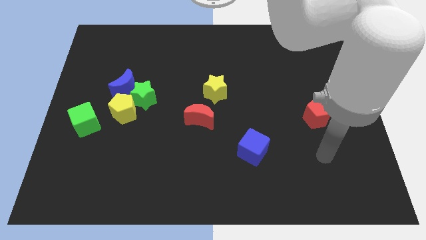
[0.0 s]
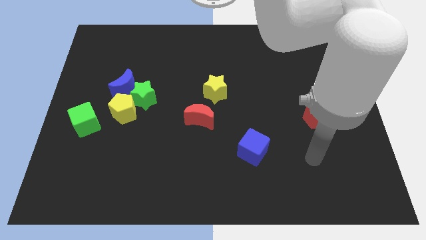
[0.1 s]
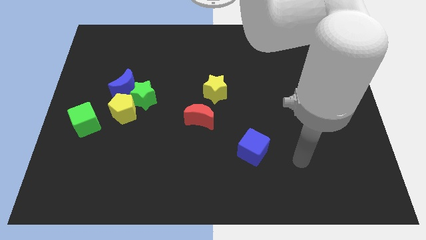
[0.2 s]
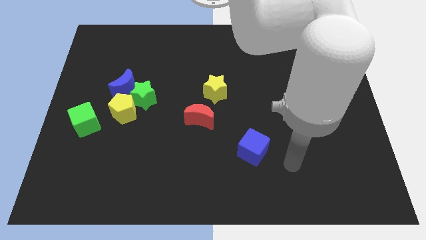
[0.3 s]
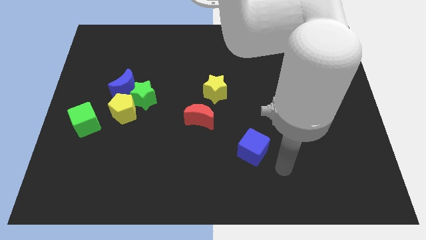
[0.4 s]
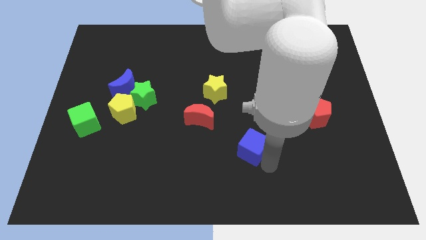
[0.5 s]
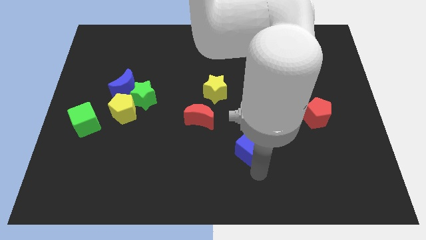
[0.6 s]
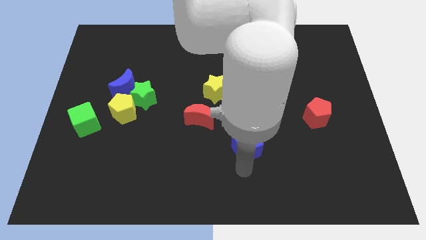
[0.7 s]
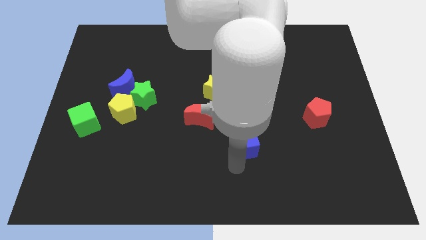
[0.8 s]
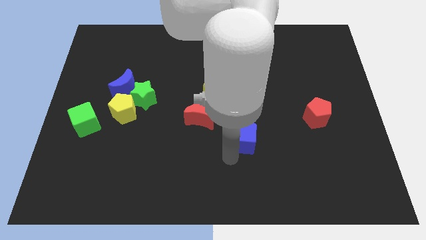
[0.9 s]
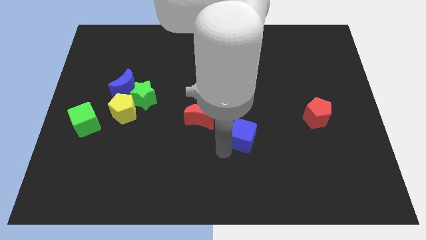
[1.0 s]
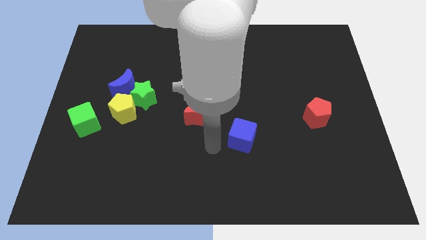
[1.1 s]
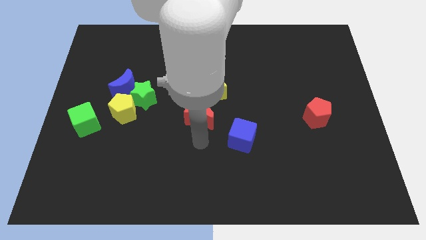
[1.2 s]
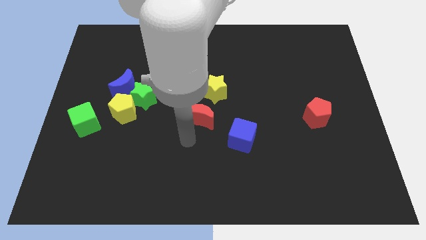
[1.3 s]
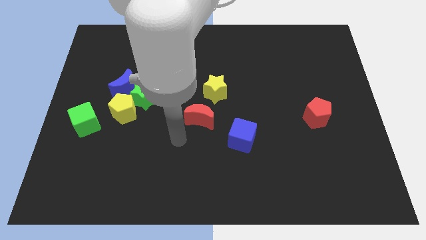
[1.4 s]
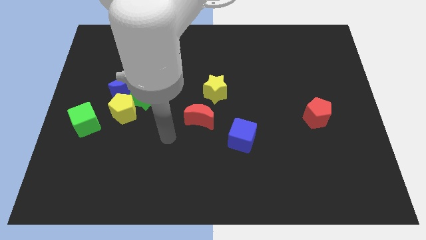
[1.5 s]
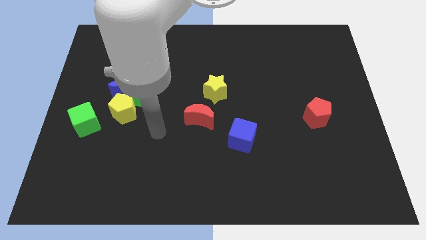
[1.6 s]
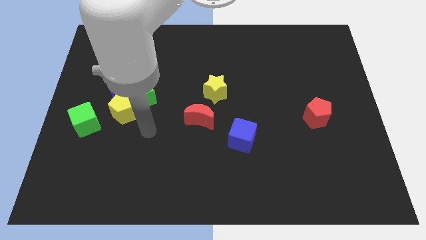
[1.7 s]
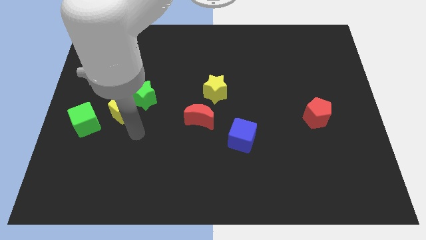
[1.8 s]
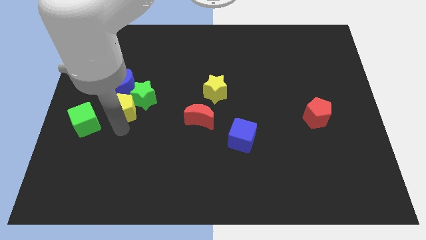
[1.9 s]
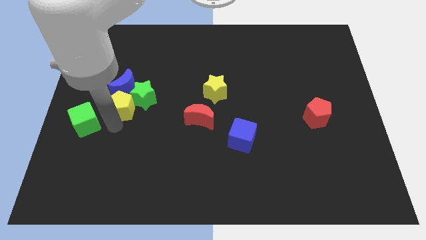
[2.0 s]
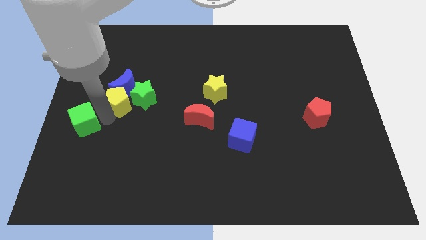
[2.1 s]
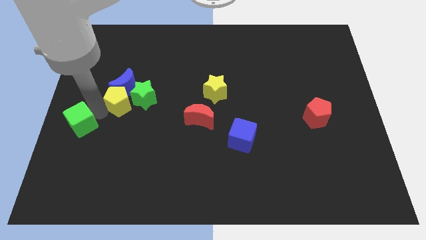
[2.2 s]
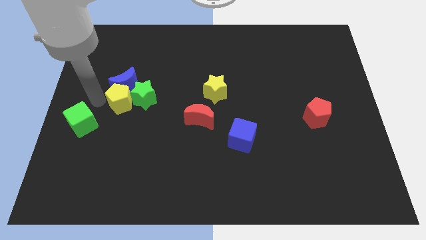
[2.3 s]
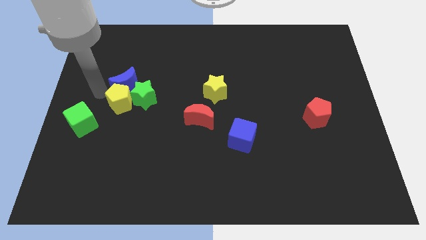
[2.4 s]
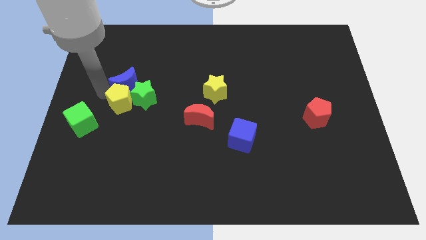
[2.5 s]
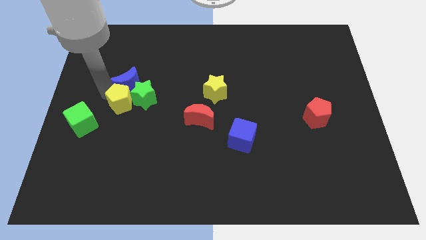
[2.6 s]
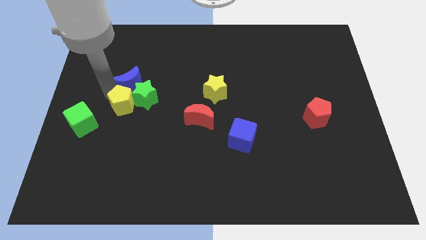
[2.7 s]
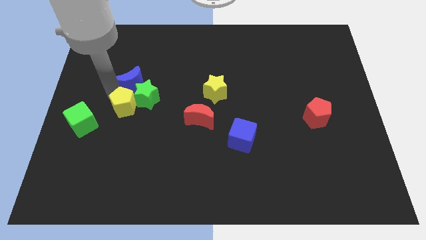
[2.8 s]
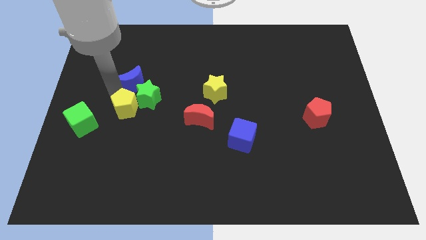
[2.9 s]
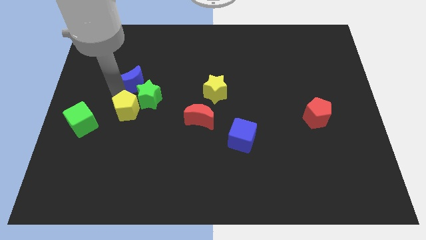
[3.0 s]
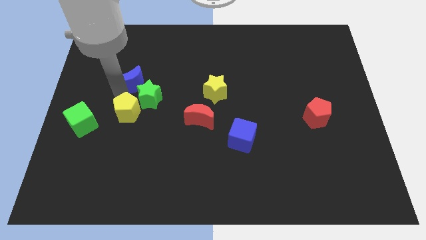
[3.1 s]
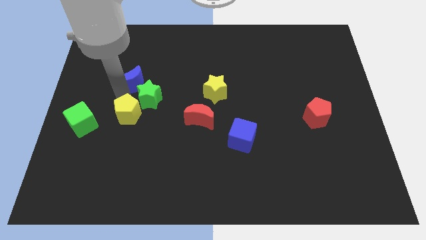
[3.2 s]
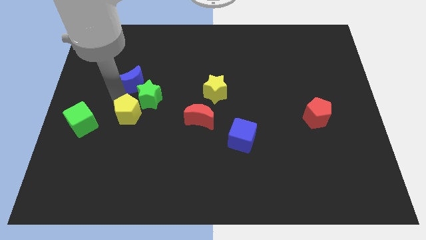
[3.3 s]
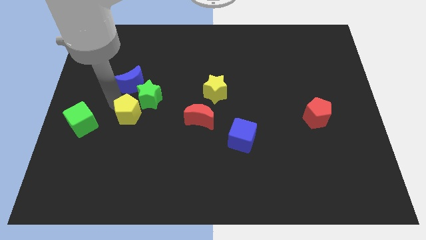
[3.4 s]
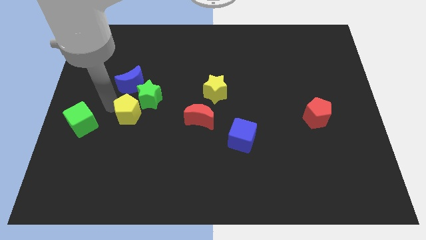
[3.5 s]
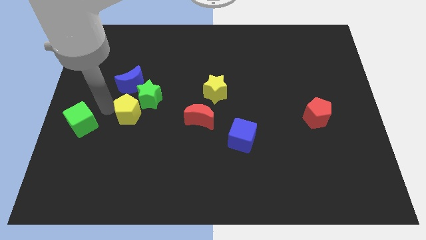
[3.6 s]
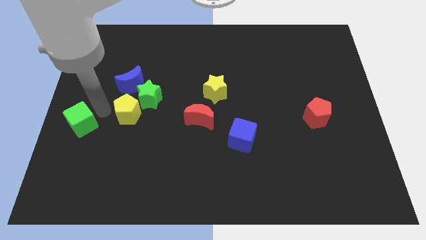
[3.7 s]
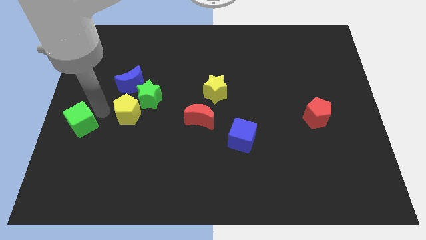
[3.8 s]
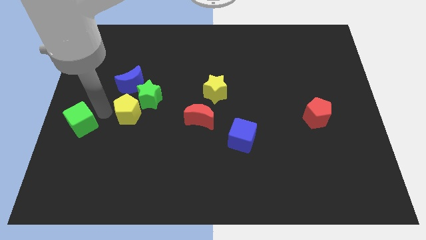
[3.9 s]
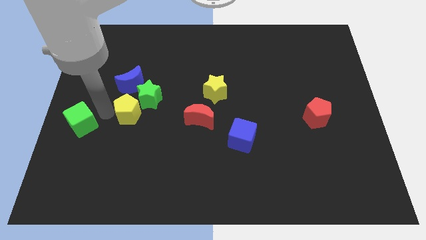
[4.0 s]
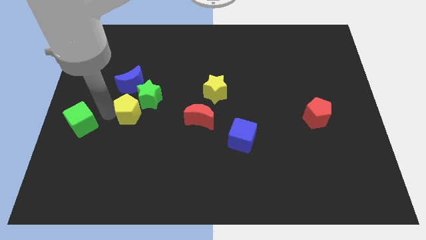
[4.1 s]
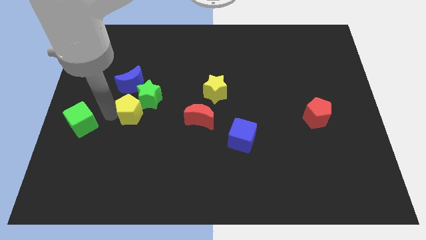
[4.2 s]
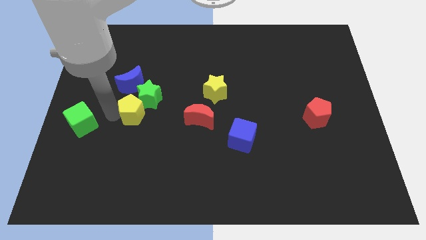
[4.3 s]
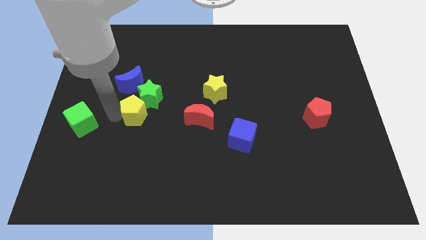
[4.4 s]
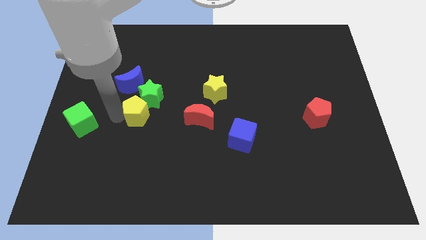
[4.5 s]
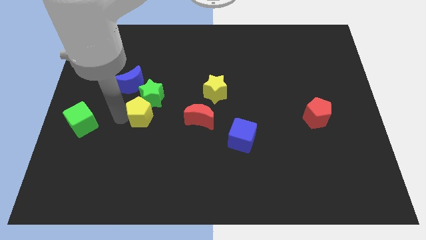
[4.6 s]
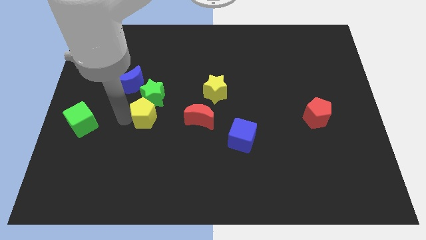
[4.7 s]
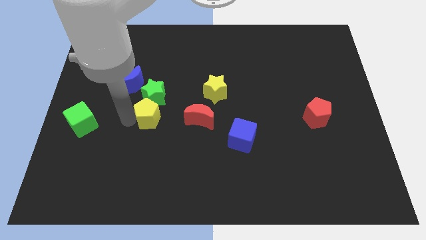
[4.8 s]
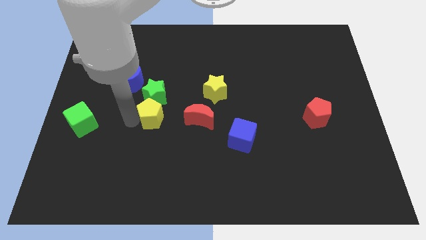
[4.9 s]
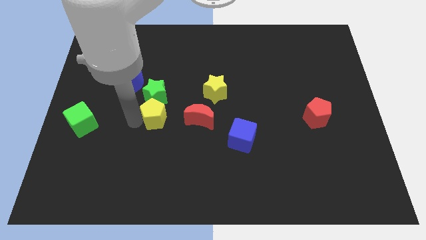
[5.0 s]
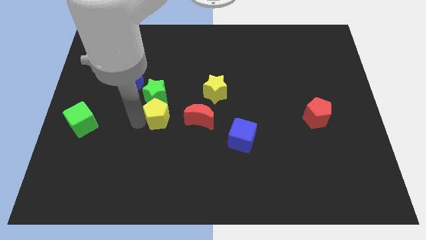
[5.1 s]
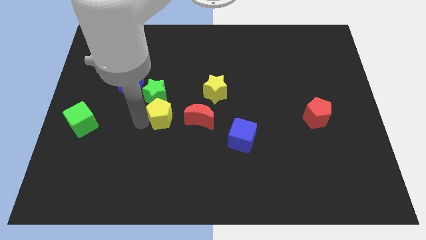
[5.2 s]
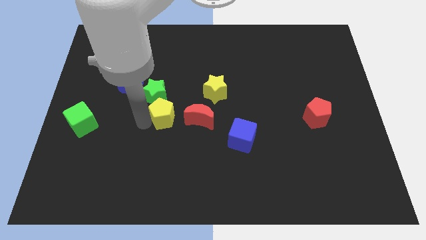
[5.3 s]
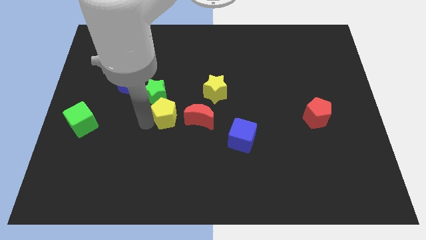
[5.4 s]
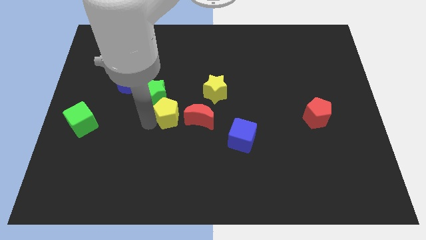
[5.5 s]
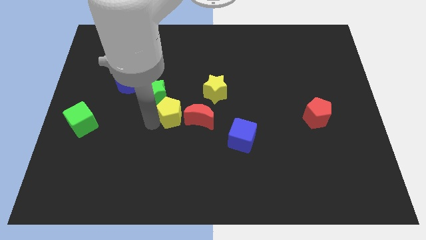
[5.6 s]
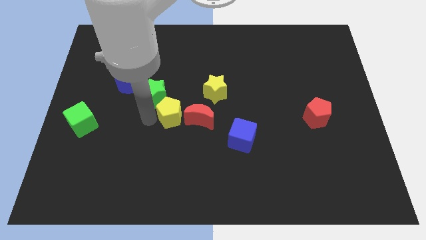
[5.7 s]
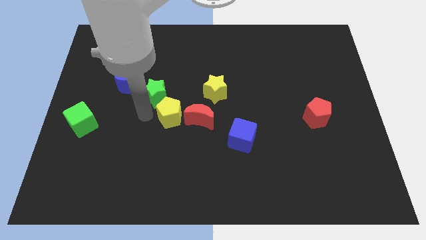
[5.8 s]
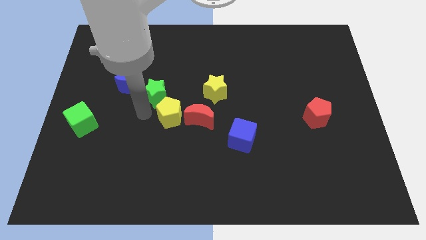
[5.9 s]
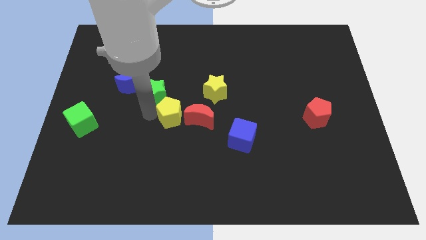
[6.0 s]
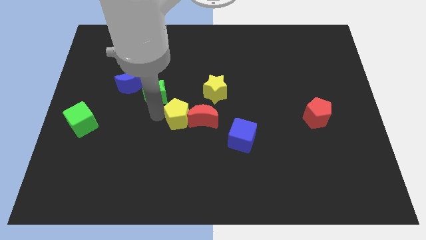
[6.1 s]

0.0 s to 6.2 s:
slide the yellow pentagon close to the red moon

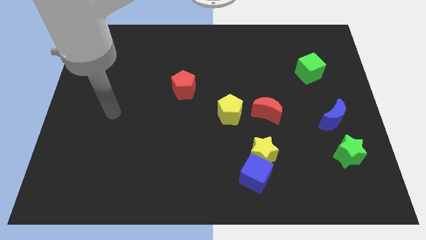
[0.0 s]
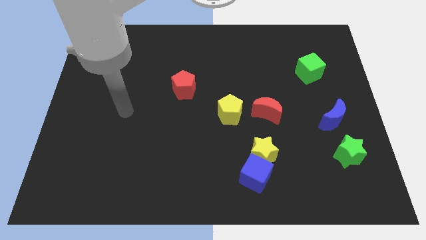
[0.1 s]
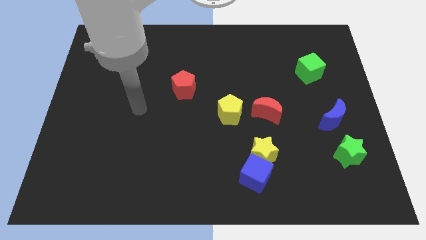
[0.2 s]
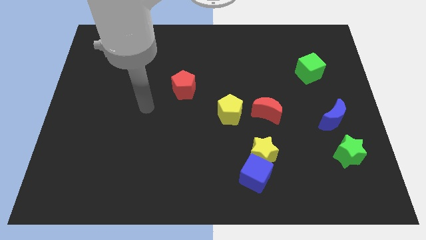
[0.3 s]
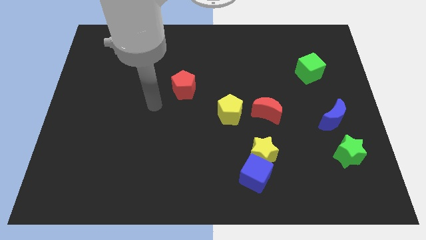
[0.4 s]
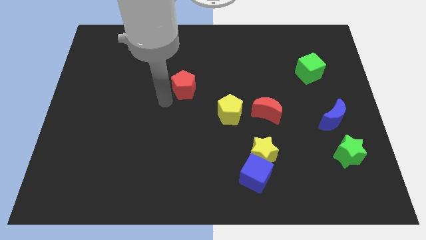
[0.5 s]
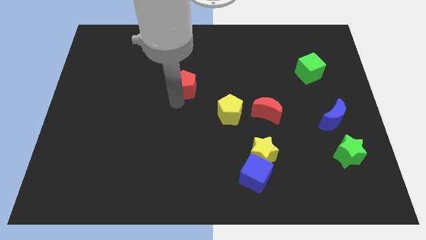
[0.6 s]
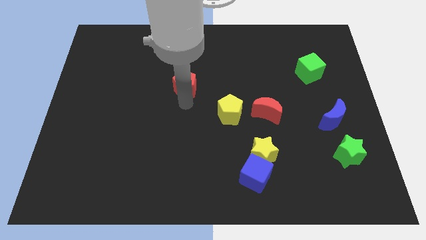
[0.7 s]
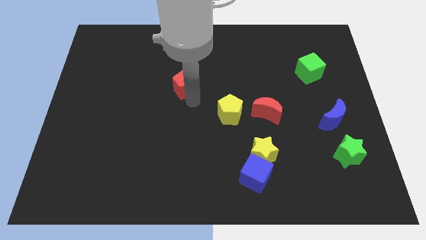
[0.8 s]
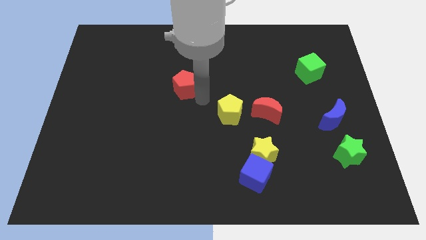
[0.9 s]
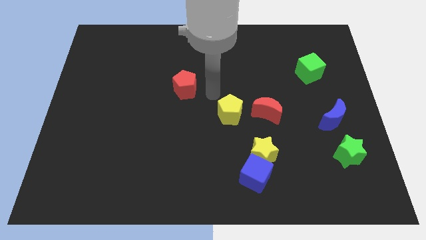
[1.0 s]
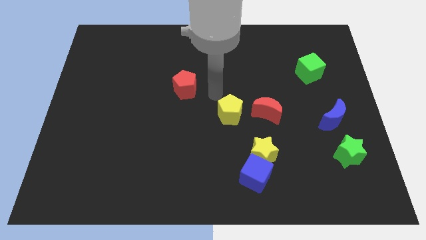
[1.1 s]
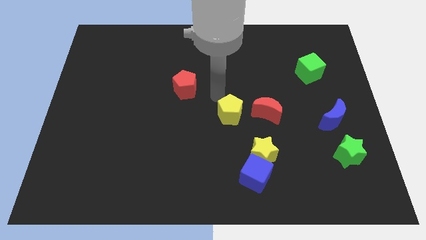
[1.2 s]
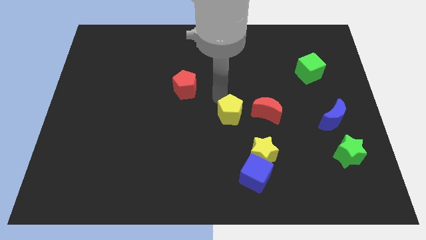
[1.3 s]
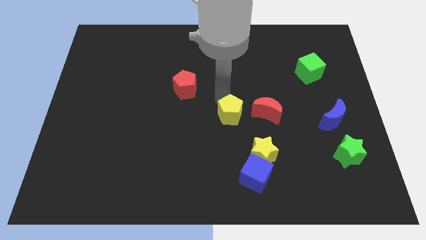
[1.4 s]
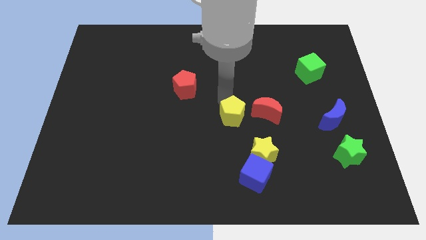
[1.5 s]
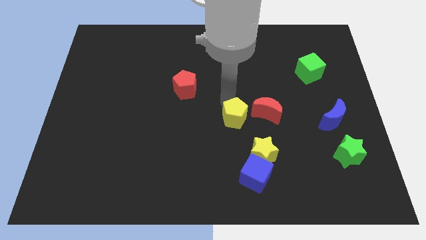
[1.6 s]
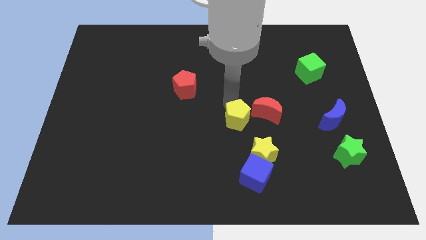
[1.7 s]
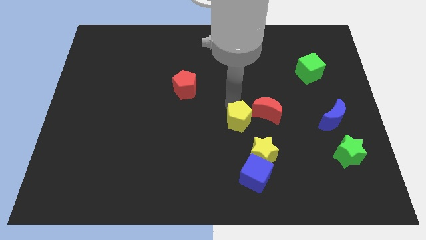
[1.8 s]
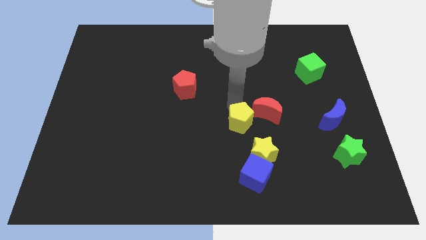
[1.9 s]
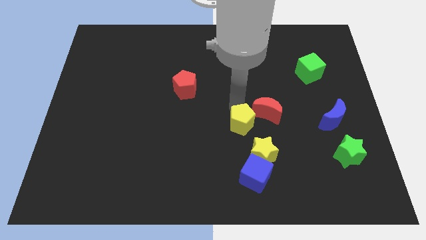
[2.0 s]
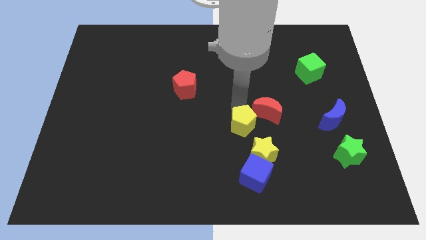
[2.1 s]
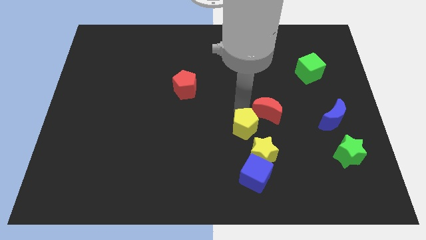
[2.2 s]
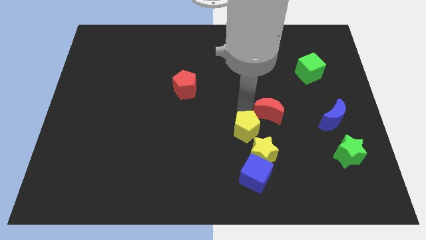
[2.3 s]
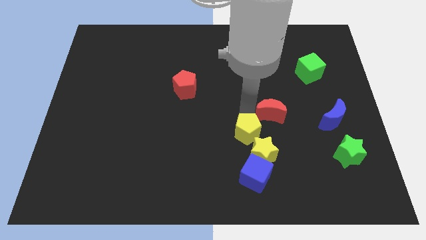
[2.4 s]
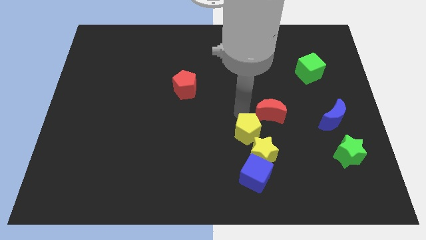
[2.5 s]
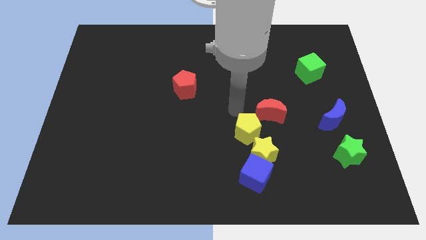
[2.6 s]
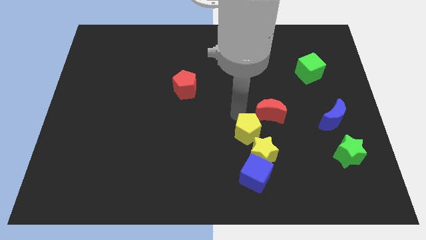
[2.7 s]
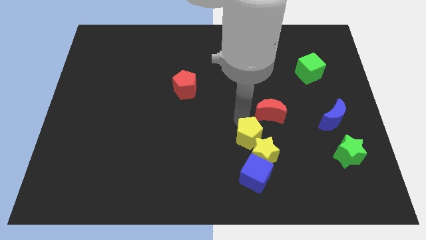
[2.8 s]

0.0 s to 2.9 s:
slide the yellow pentagon next to the yellow star
